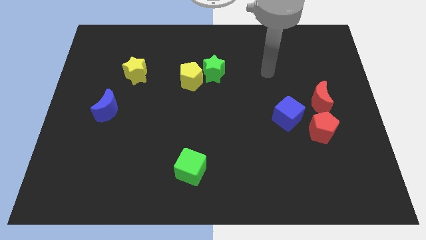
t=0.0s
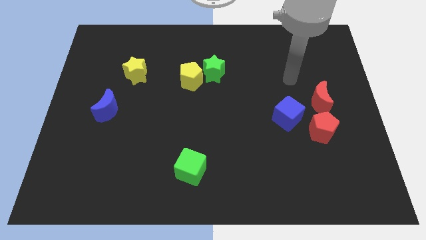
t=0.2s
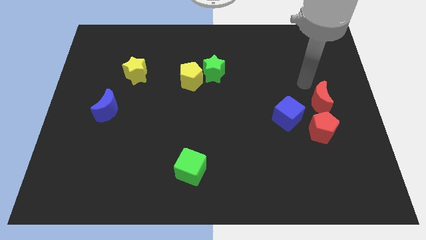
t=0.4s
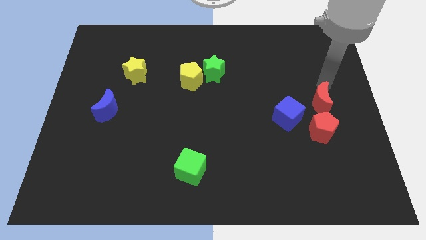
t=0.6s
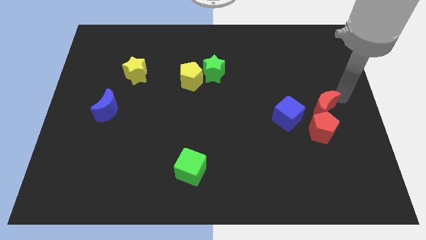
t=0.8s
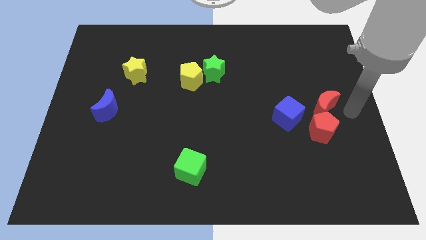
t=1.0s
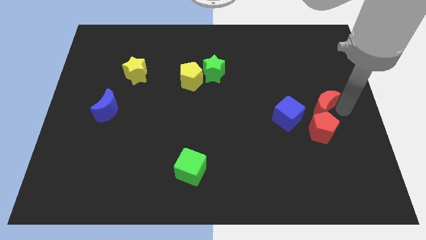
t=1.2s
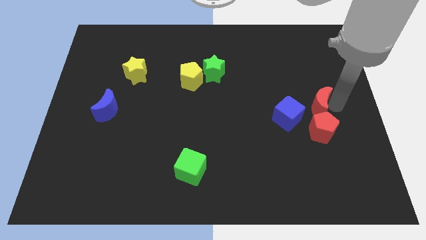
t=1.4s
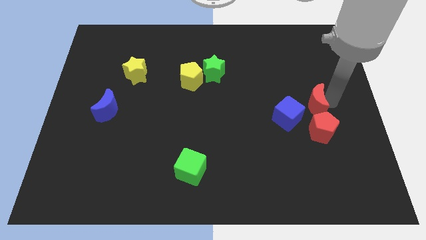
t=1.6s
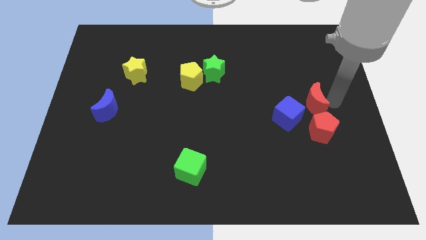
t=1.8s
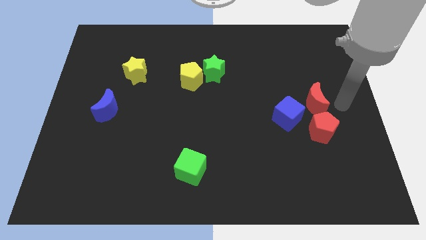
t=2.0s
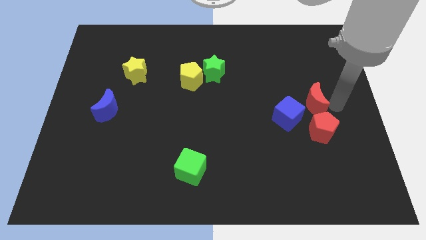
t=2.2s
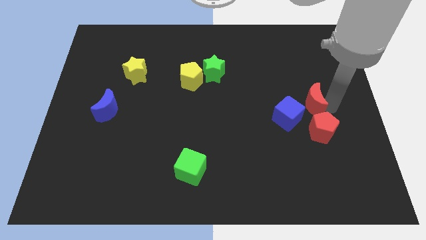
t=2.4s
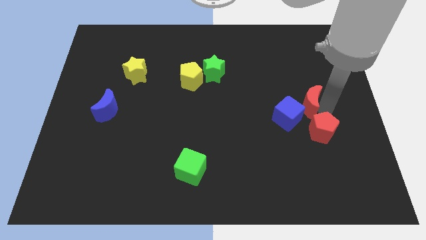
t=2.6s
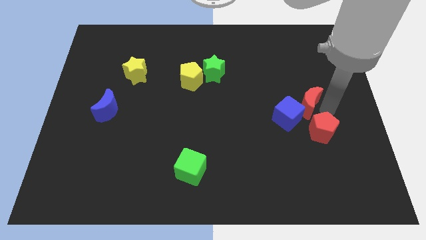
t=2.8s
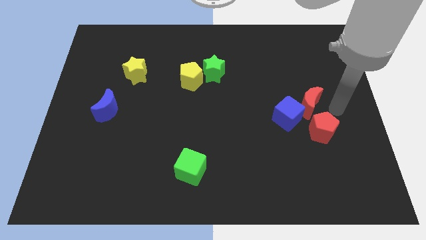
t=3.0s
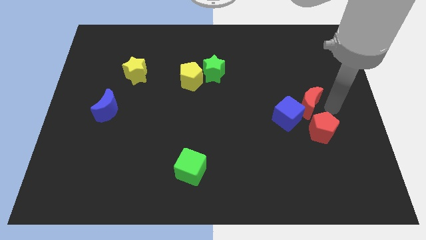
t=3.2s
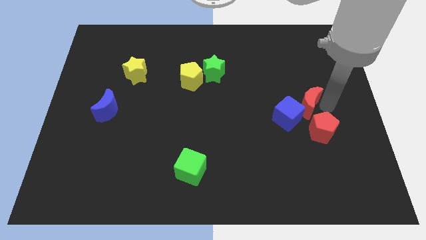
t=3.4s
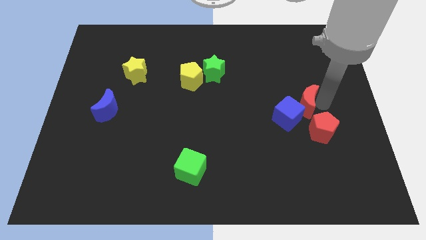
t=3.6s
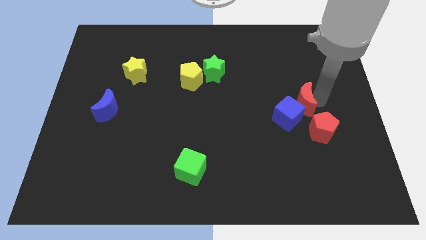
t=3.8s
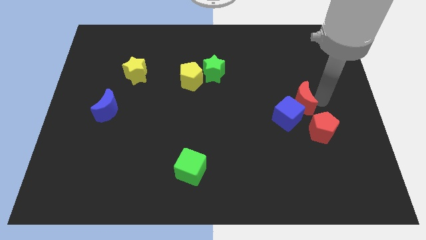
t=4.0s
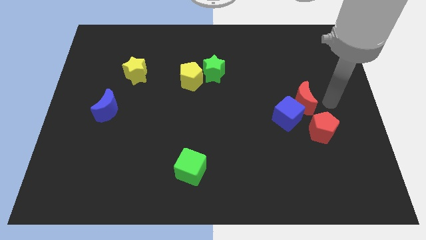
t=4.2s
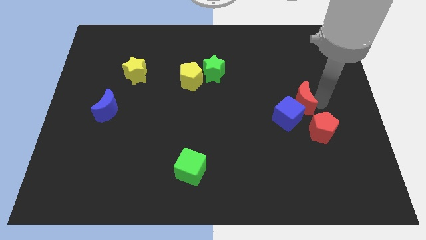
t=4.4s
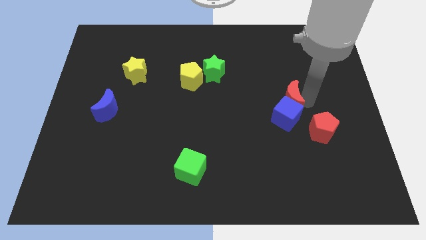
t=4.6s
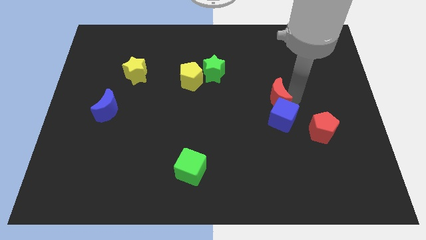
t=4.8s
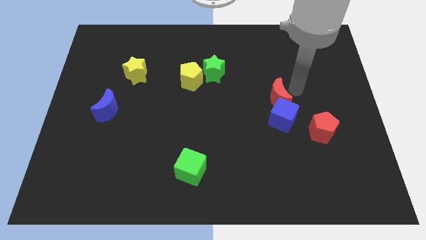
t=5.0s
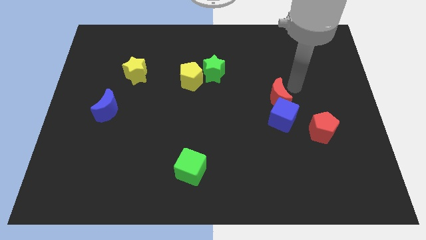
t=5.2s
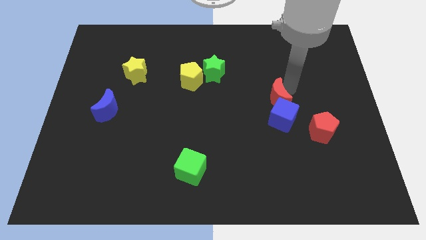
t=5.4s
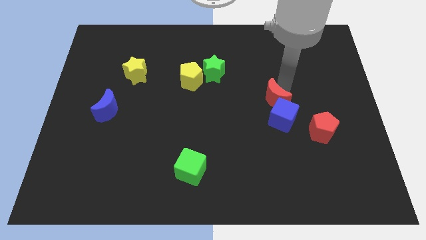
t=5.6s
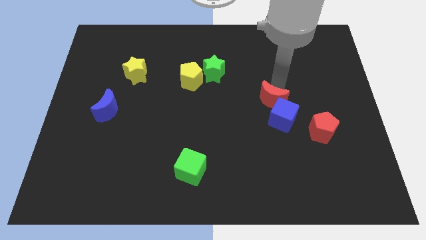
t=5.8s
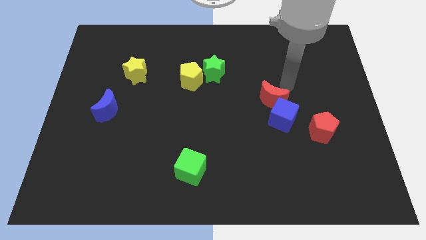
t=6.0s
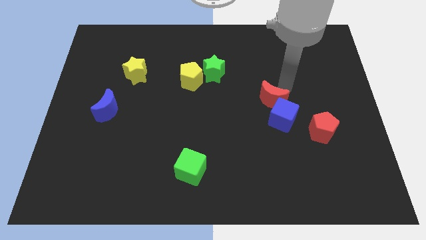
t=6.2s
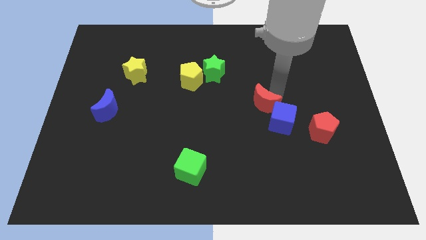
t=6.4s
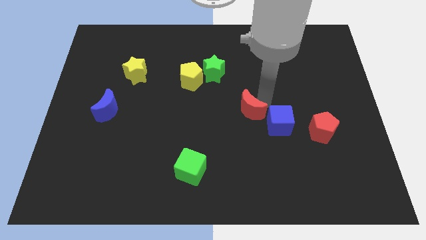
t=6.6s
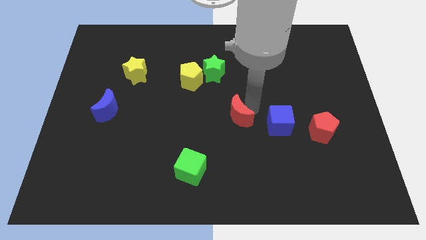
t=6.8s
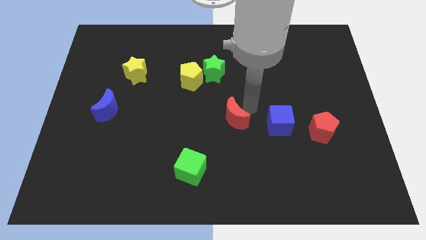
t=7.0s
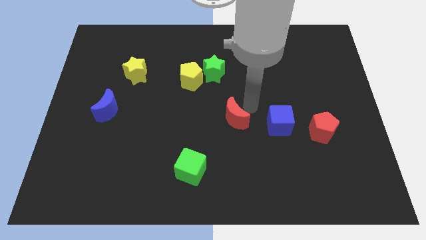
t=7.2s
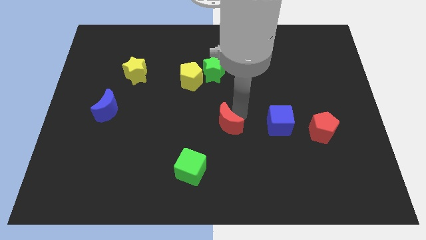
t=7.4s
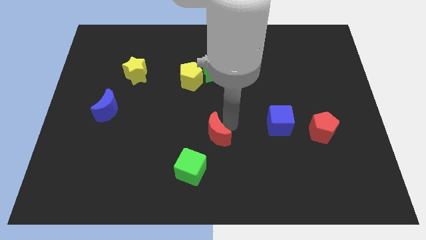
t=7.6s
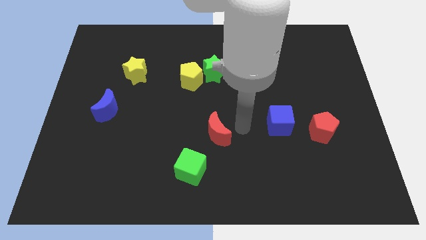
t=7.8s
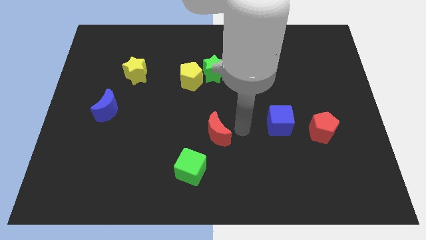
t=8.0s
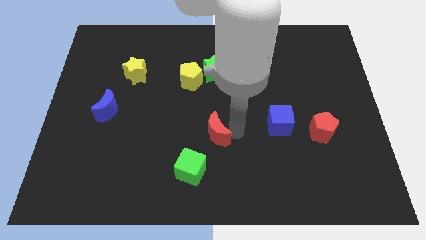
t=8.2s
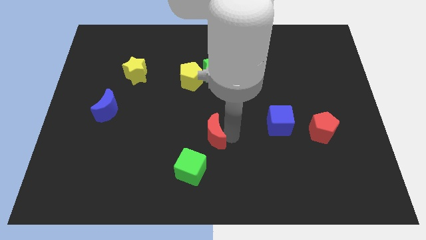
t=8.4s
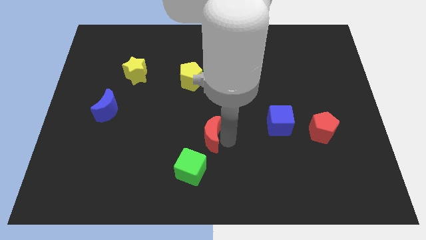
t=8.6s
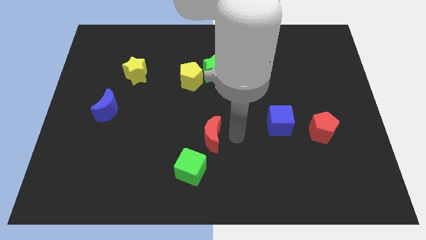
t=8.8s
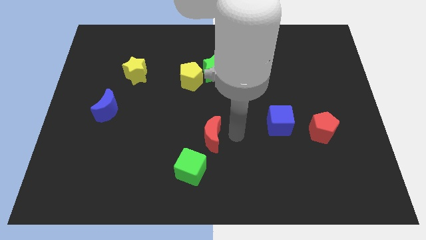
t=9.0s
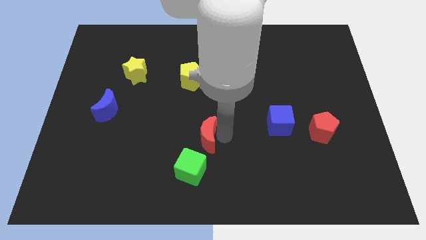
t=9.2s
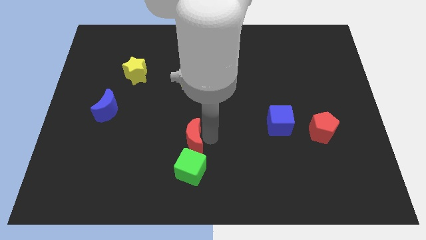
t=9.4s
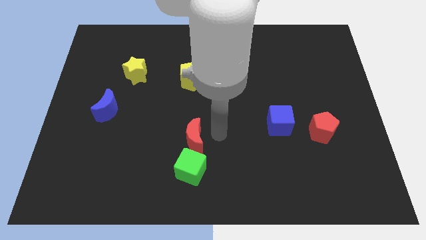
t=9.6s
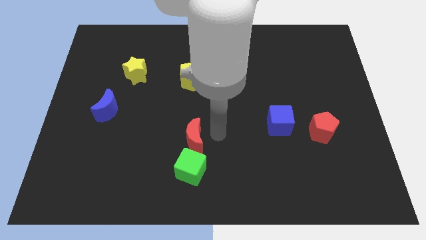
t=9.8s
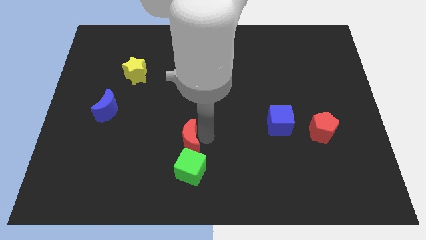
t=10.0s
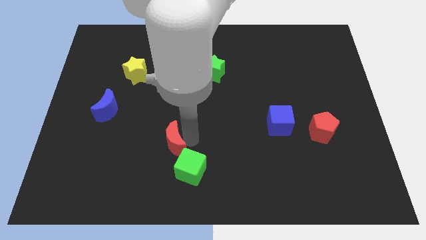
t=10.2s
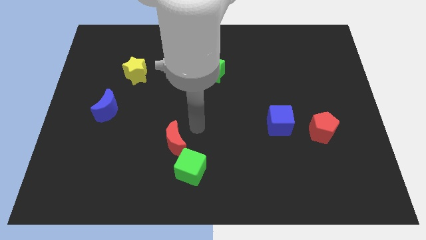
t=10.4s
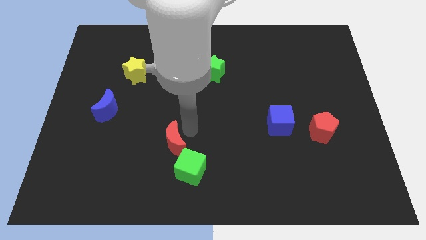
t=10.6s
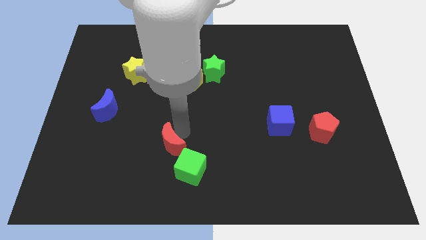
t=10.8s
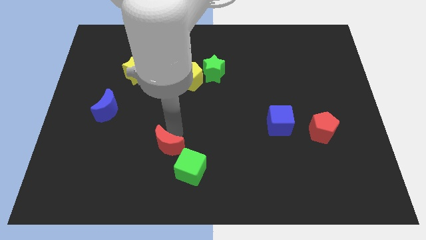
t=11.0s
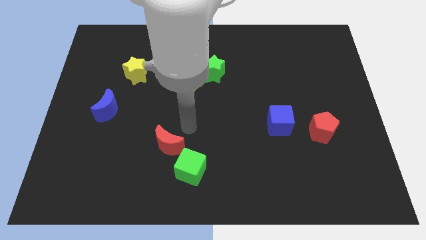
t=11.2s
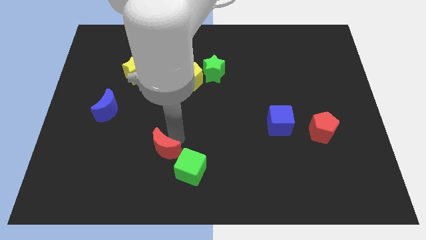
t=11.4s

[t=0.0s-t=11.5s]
move the red moon to the left side of the green cube

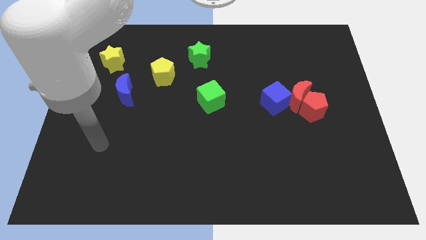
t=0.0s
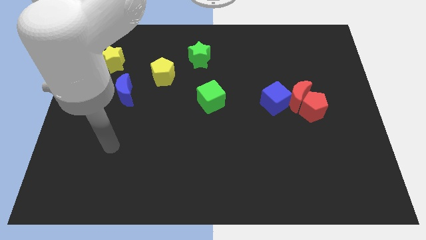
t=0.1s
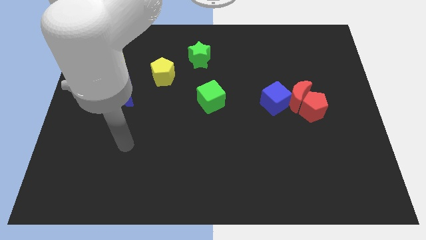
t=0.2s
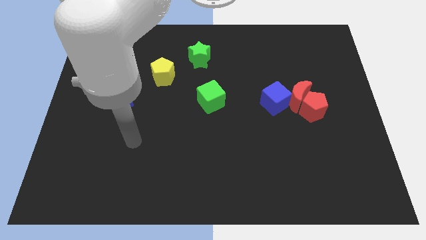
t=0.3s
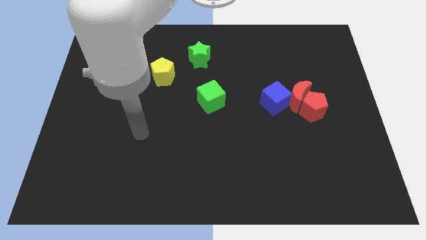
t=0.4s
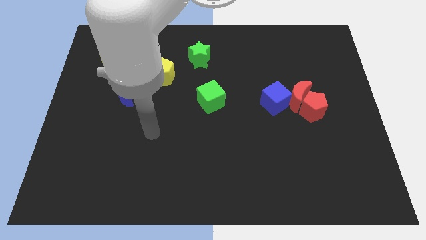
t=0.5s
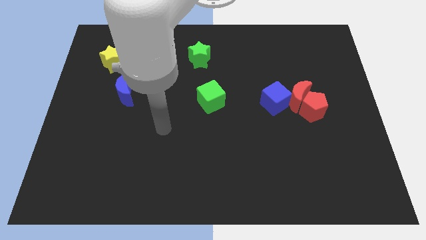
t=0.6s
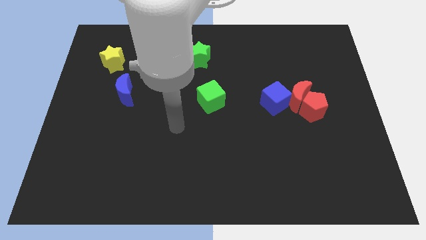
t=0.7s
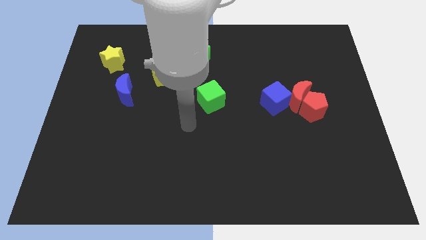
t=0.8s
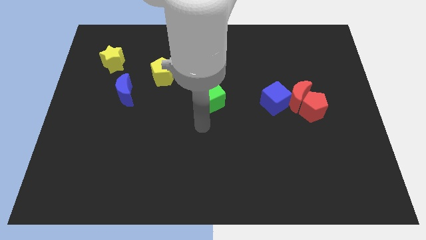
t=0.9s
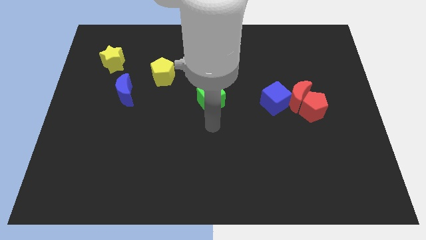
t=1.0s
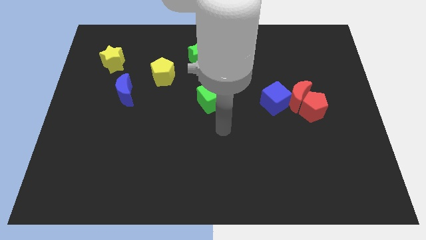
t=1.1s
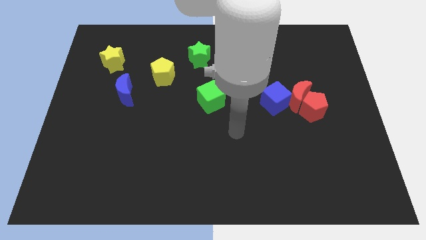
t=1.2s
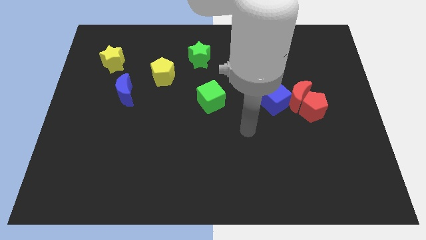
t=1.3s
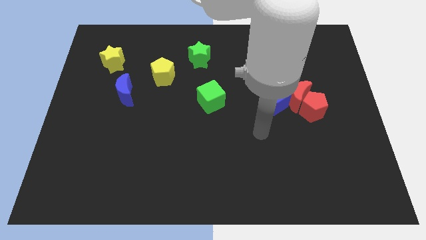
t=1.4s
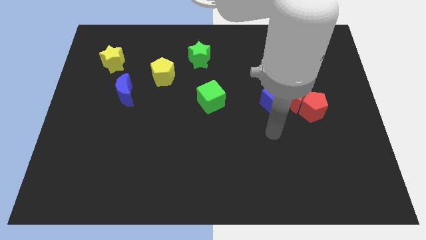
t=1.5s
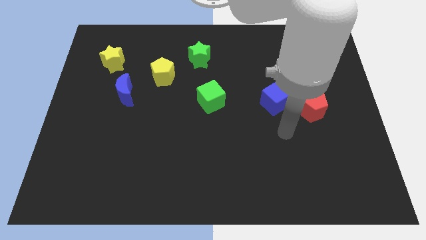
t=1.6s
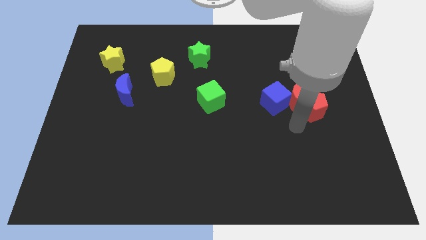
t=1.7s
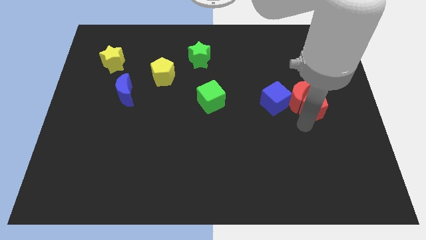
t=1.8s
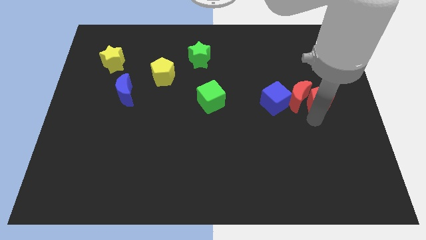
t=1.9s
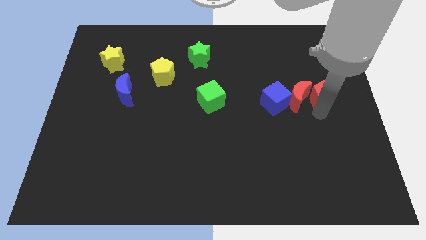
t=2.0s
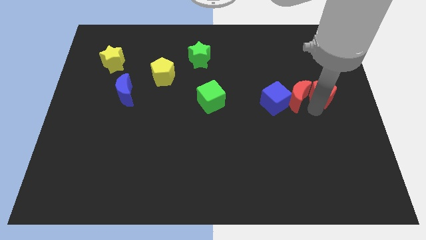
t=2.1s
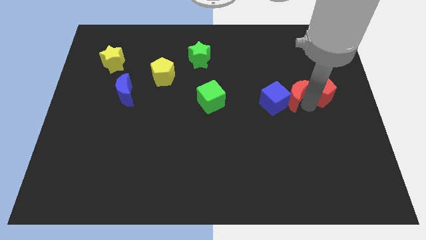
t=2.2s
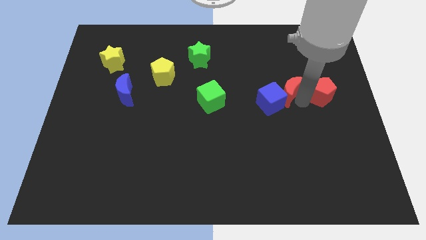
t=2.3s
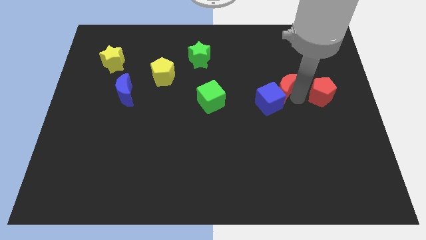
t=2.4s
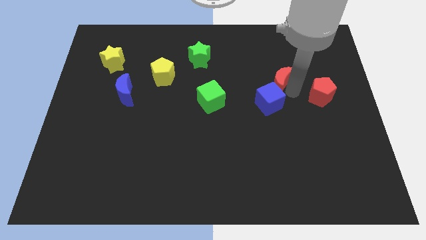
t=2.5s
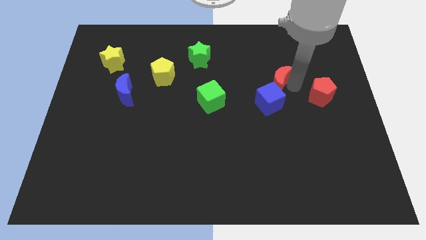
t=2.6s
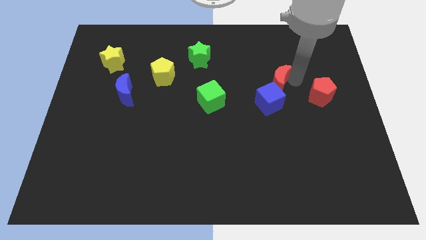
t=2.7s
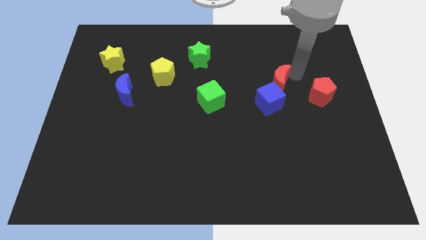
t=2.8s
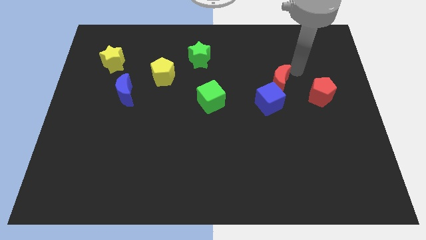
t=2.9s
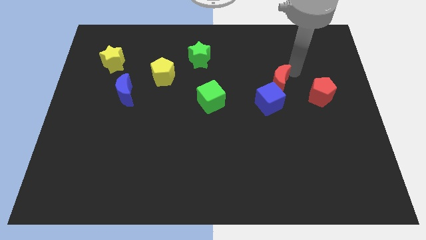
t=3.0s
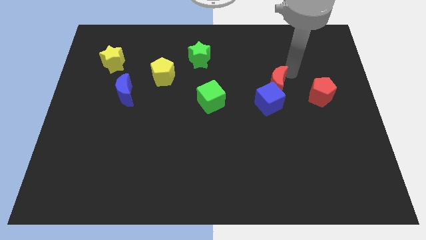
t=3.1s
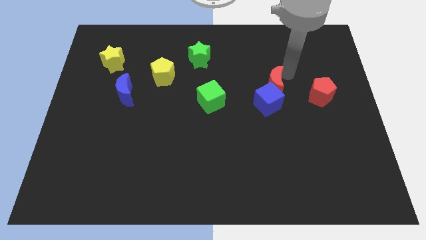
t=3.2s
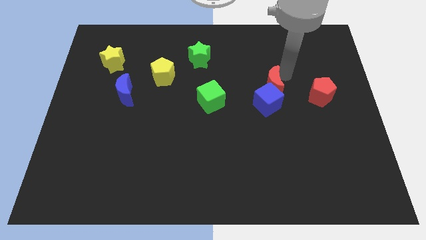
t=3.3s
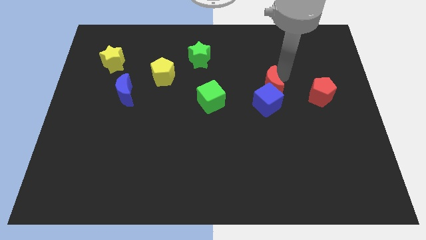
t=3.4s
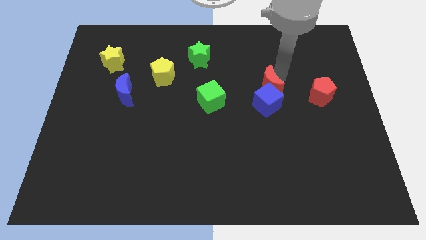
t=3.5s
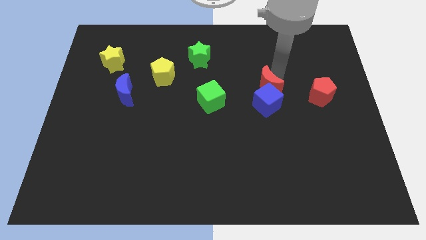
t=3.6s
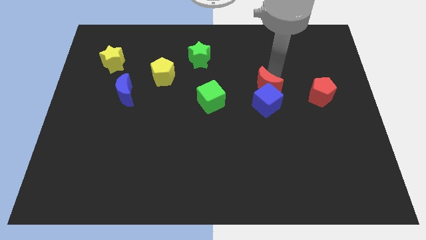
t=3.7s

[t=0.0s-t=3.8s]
push the red moon right of the green cube
